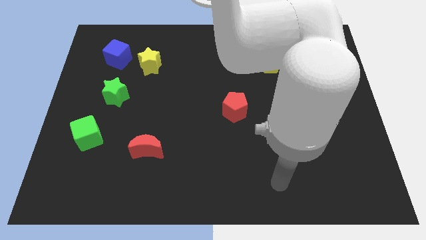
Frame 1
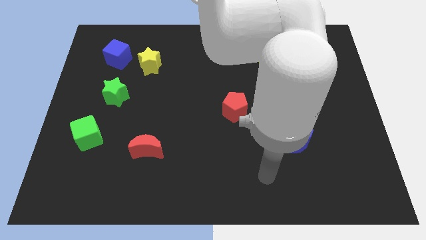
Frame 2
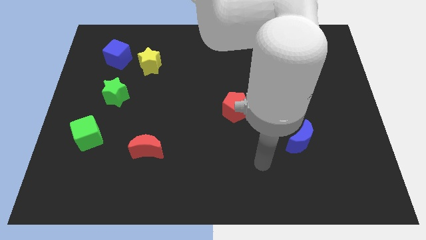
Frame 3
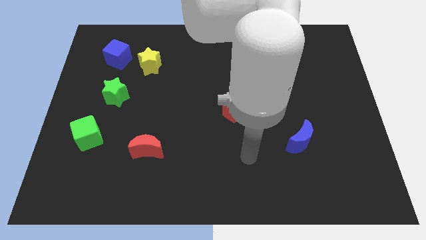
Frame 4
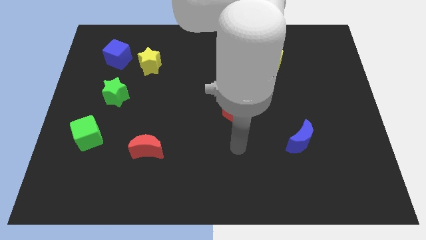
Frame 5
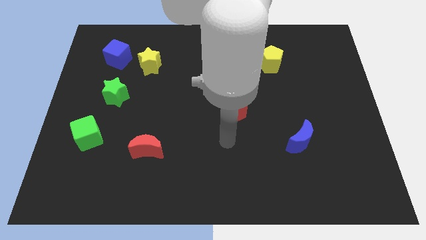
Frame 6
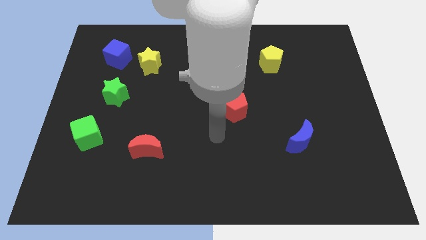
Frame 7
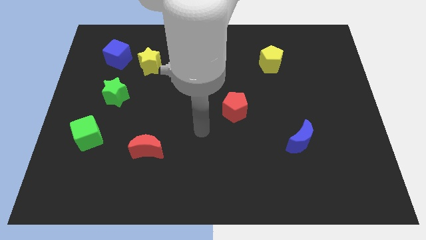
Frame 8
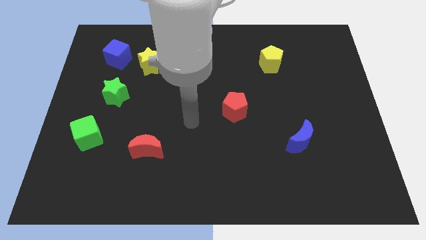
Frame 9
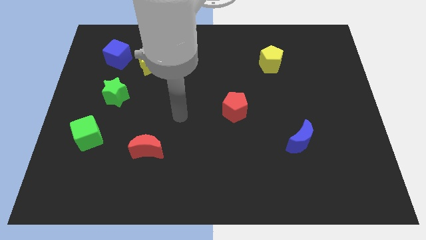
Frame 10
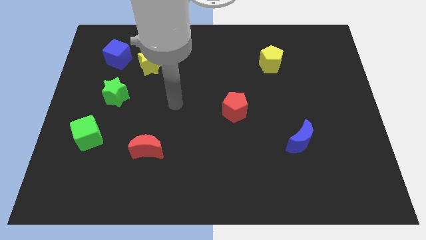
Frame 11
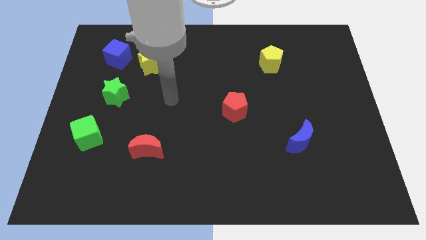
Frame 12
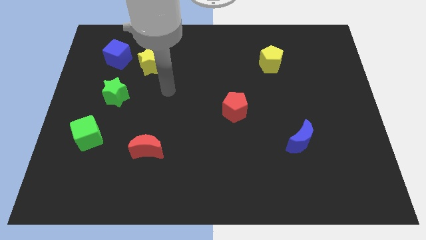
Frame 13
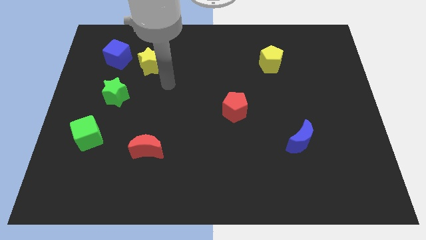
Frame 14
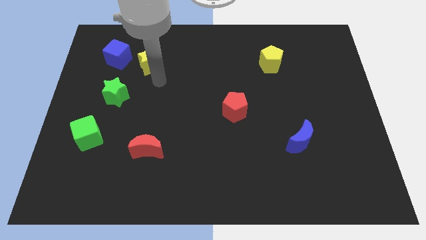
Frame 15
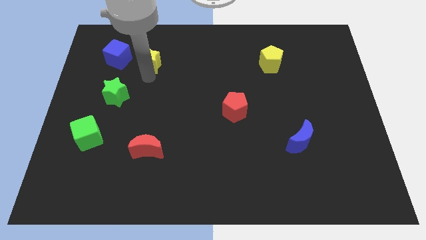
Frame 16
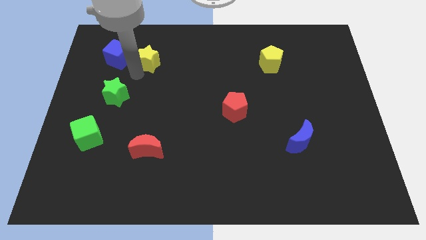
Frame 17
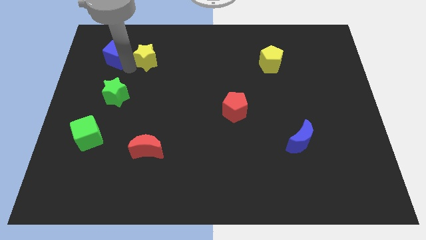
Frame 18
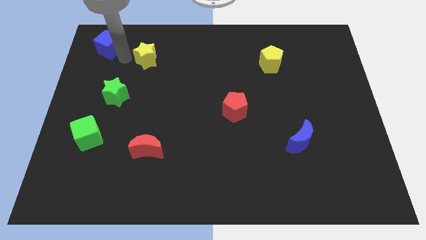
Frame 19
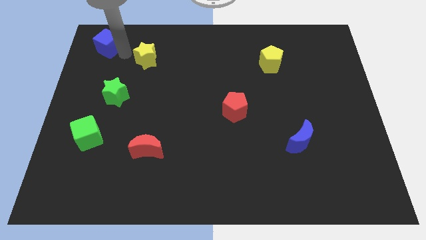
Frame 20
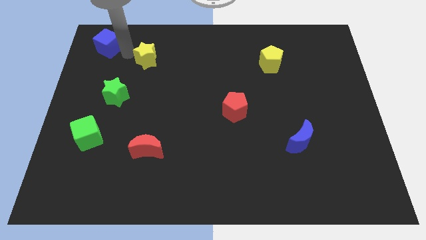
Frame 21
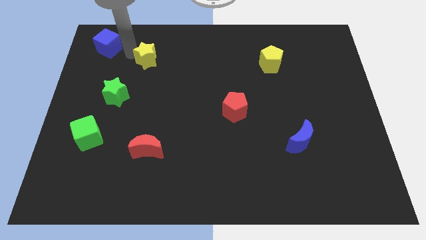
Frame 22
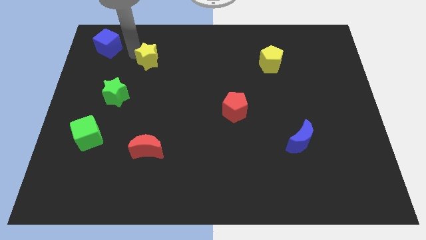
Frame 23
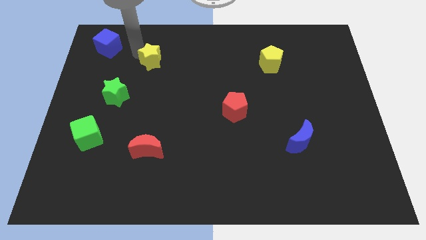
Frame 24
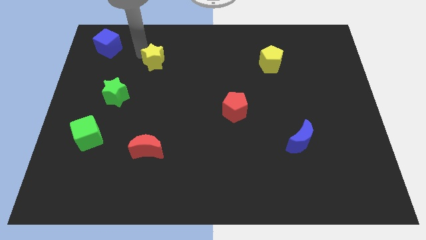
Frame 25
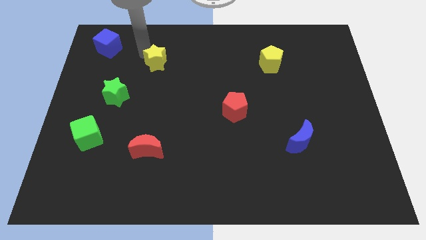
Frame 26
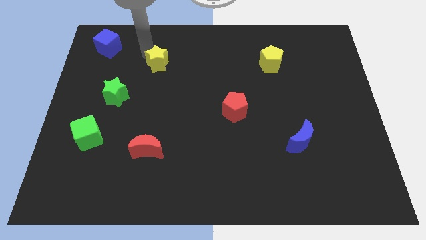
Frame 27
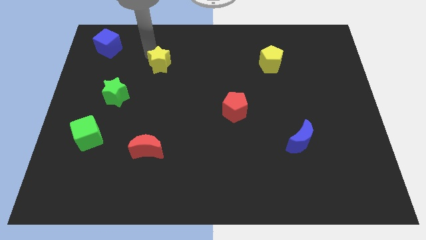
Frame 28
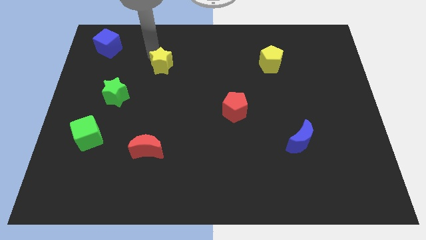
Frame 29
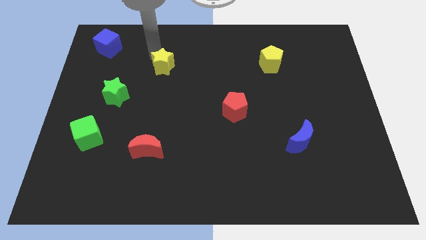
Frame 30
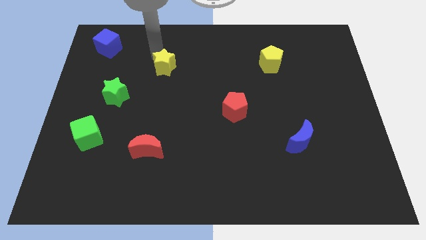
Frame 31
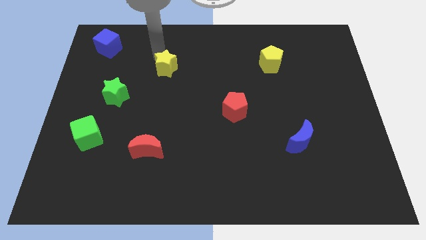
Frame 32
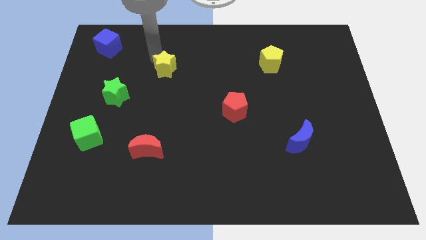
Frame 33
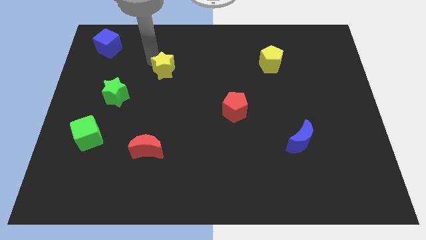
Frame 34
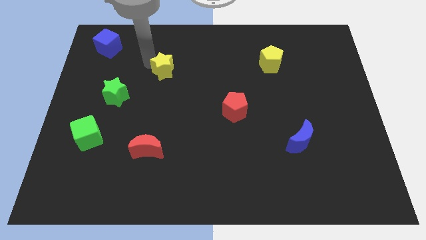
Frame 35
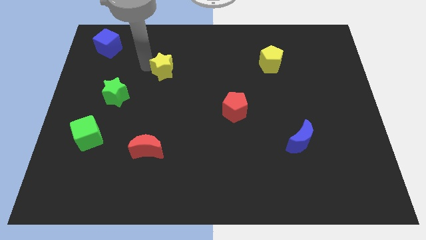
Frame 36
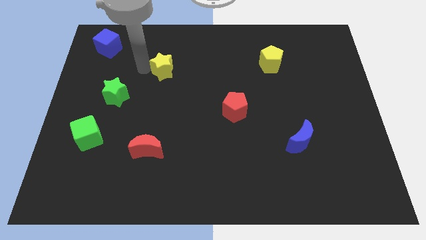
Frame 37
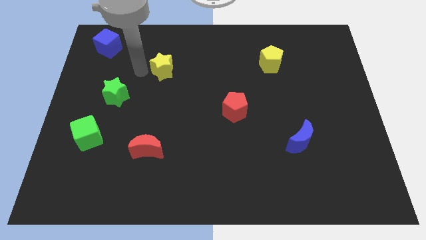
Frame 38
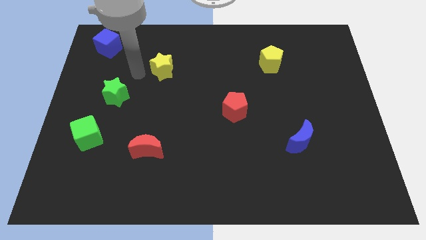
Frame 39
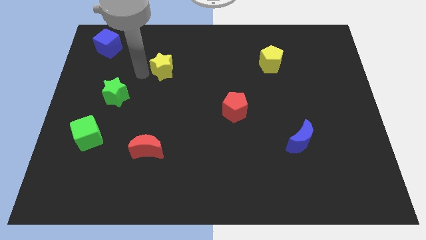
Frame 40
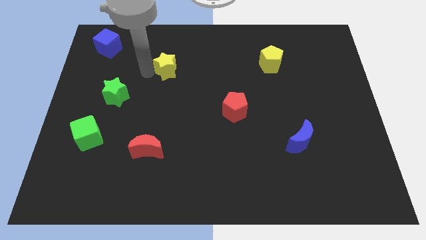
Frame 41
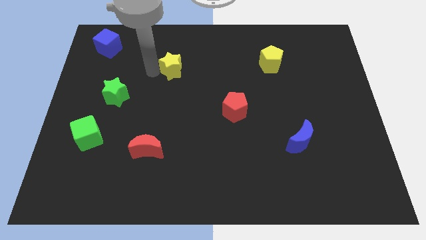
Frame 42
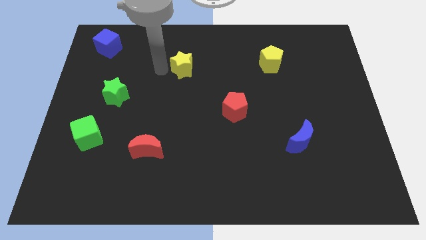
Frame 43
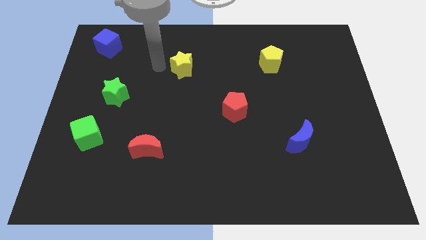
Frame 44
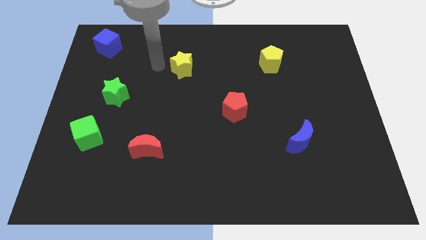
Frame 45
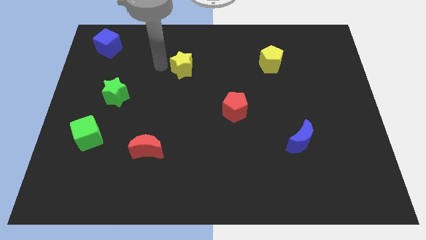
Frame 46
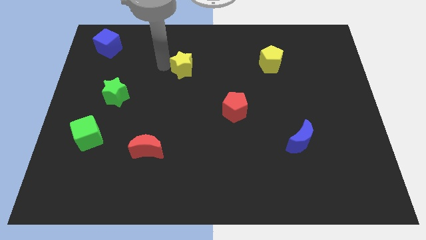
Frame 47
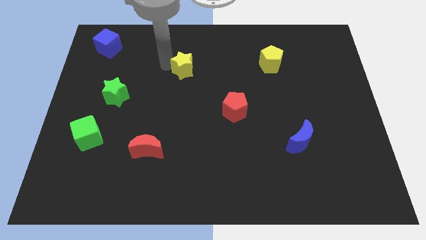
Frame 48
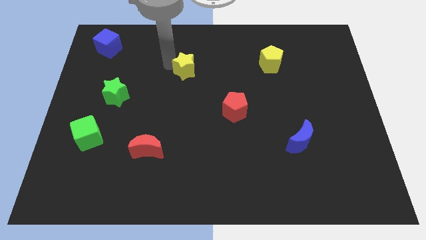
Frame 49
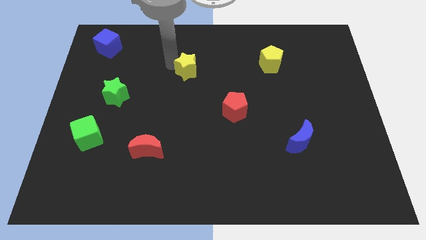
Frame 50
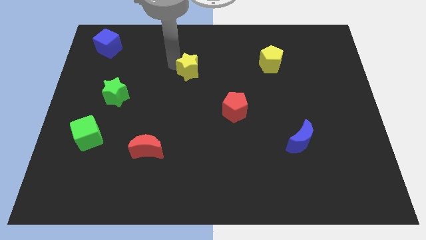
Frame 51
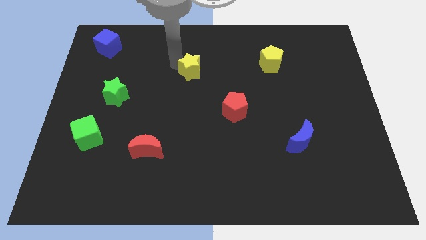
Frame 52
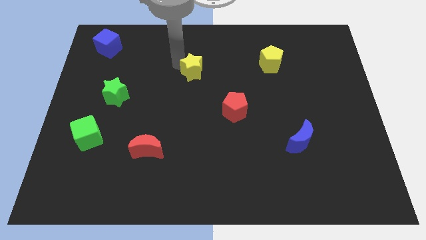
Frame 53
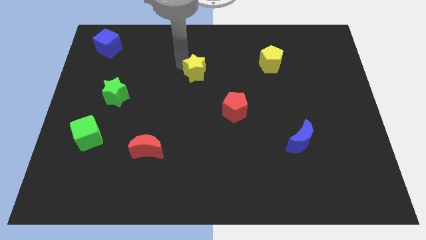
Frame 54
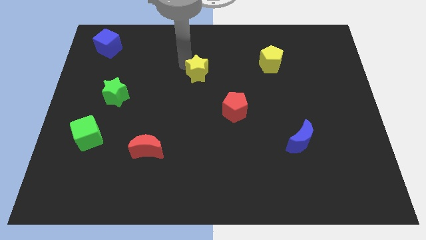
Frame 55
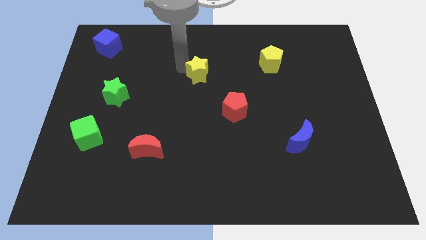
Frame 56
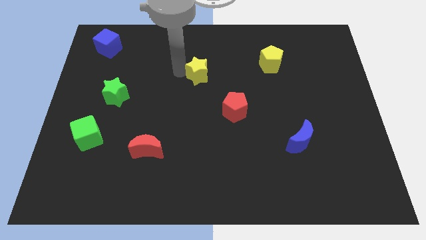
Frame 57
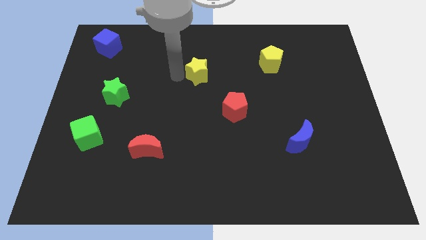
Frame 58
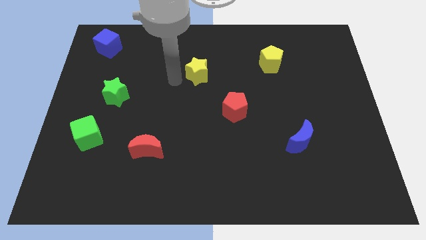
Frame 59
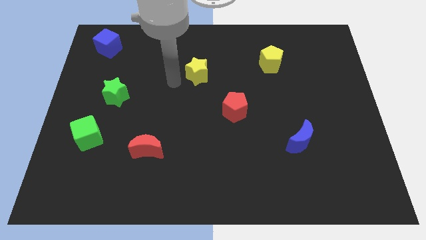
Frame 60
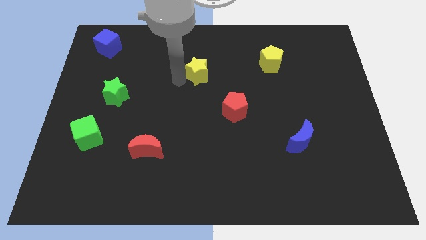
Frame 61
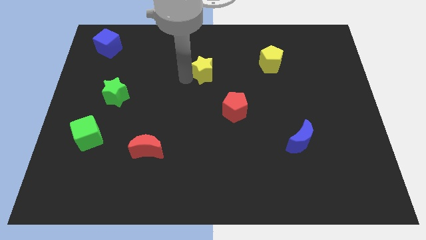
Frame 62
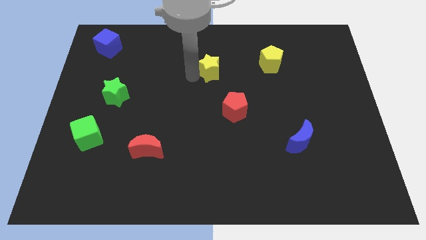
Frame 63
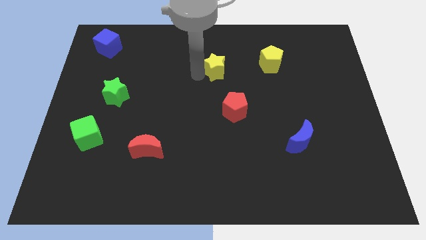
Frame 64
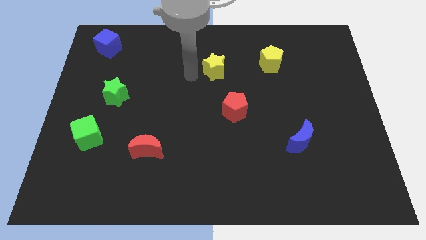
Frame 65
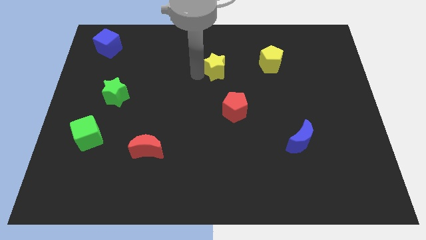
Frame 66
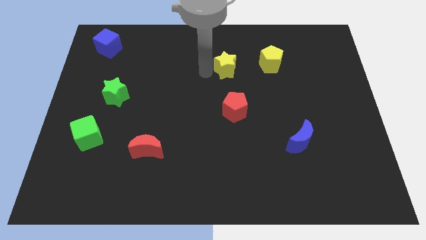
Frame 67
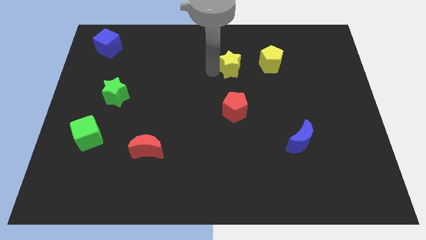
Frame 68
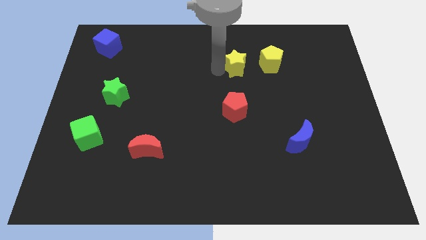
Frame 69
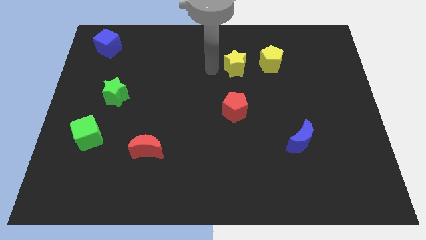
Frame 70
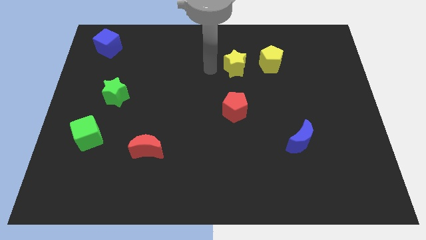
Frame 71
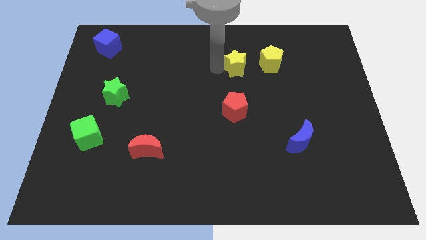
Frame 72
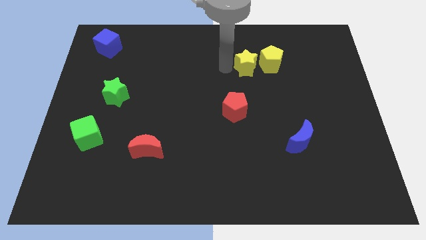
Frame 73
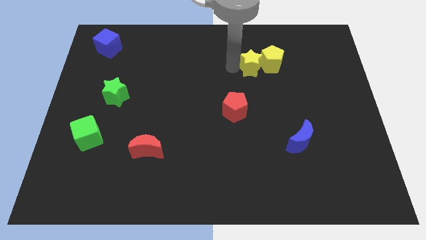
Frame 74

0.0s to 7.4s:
push the yellow star to the yellow pentagon
